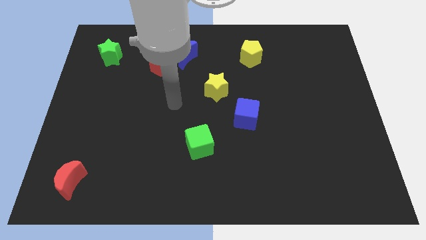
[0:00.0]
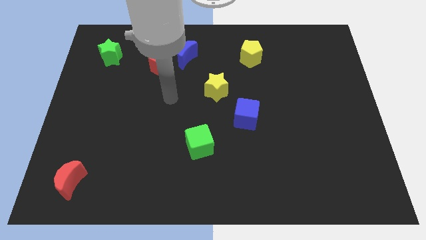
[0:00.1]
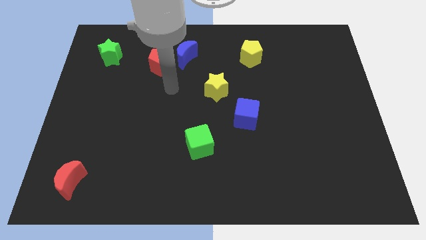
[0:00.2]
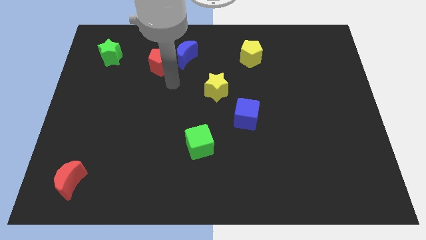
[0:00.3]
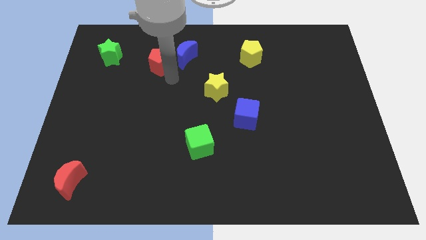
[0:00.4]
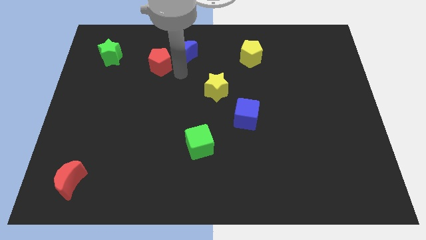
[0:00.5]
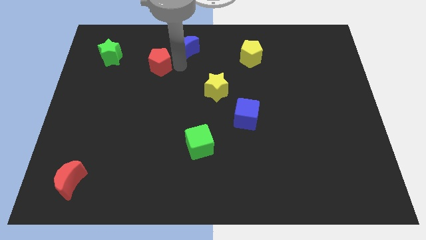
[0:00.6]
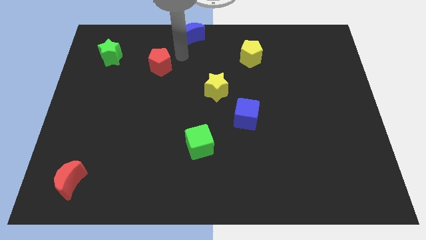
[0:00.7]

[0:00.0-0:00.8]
separate the red pentagon from the blue moon

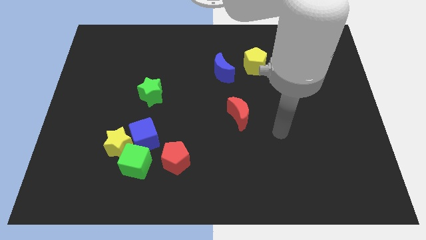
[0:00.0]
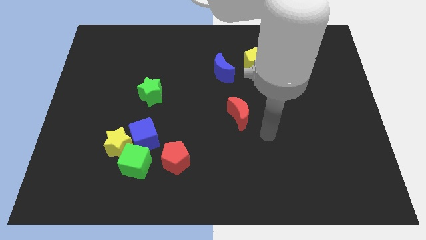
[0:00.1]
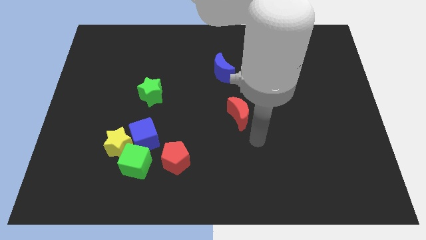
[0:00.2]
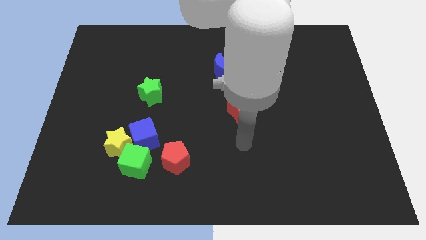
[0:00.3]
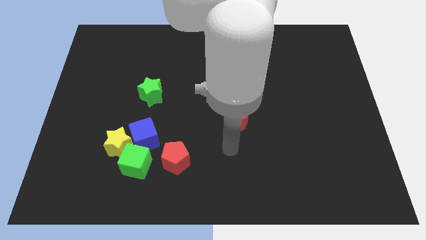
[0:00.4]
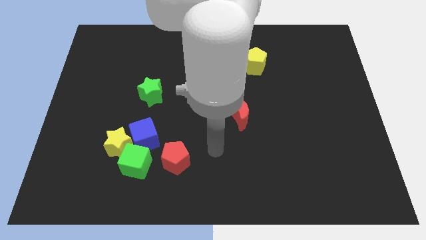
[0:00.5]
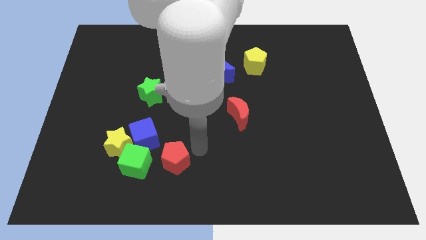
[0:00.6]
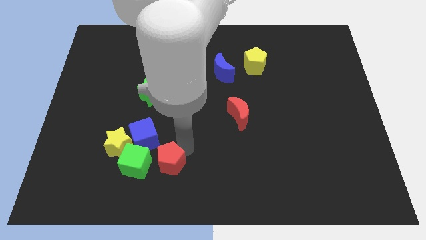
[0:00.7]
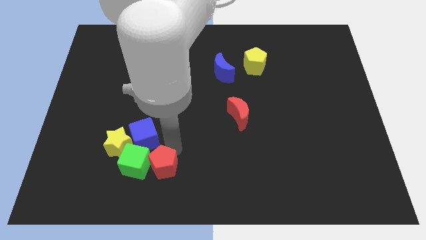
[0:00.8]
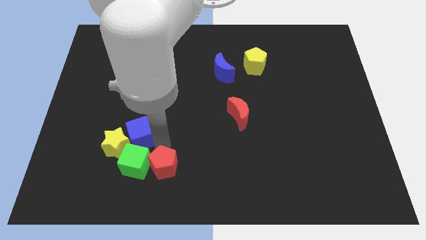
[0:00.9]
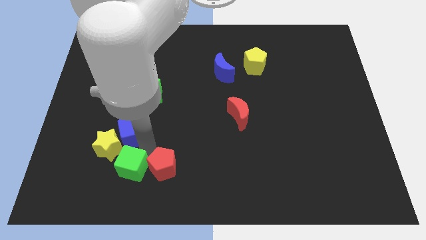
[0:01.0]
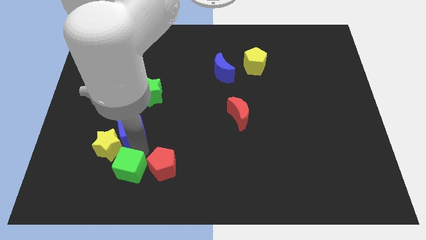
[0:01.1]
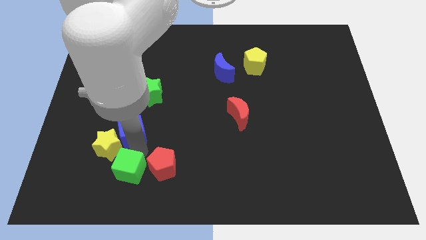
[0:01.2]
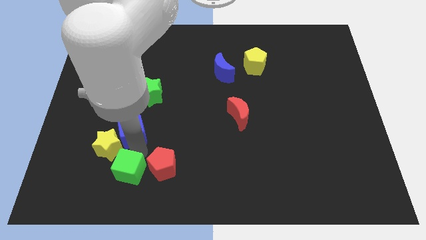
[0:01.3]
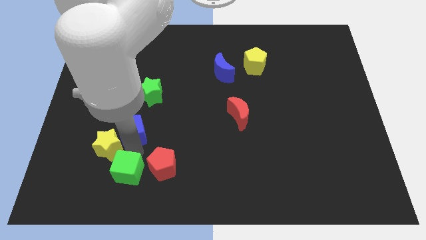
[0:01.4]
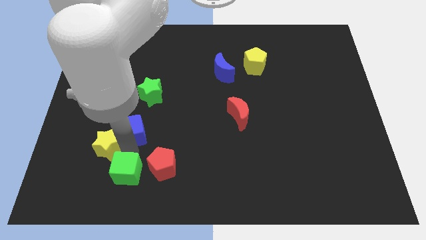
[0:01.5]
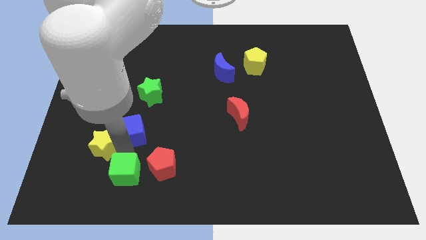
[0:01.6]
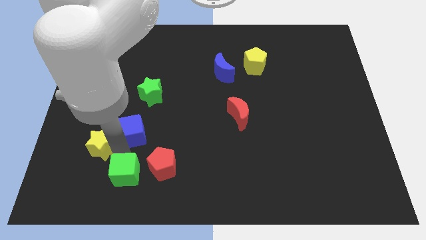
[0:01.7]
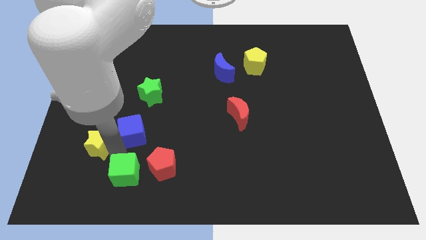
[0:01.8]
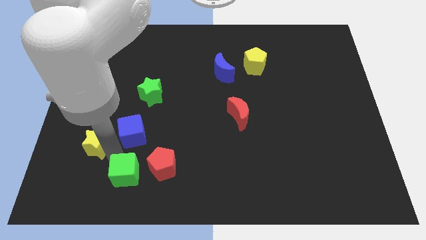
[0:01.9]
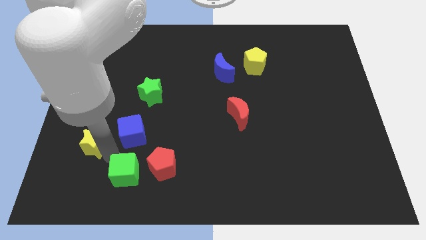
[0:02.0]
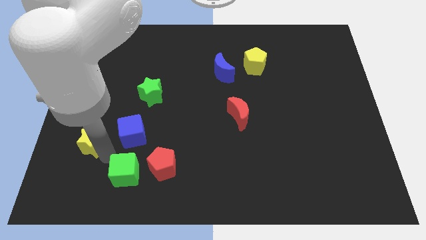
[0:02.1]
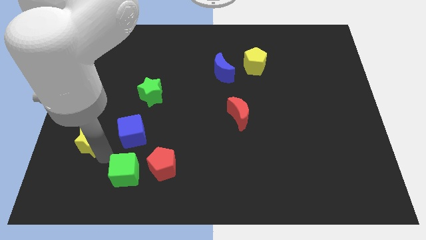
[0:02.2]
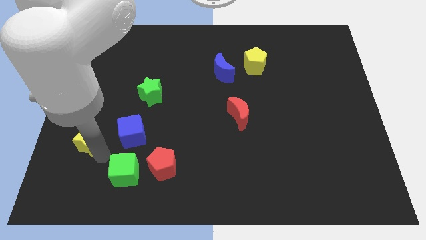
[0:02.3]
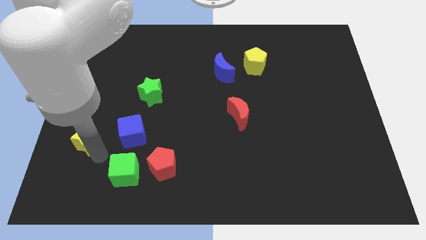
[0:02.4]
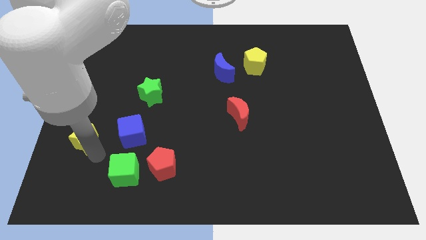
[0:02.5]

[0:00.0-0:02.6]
move the yellow star away from the blue cube and green cube

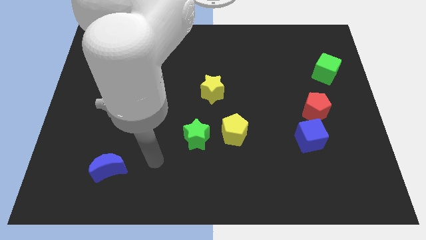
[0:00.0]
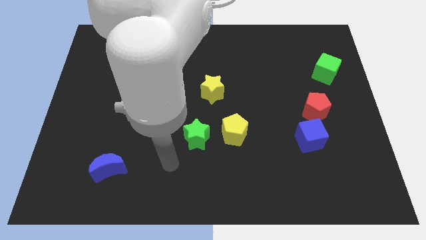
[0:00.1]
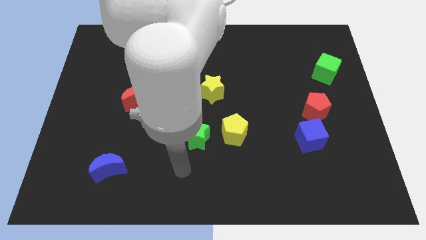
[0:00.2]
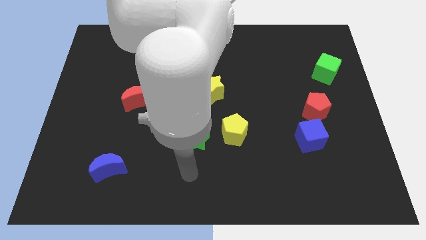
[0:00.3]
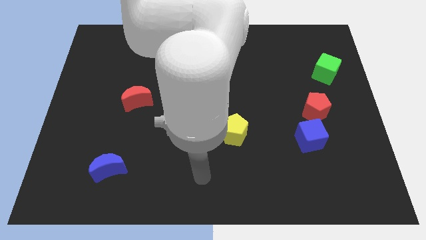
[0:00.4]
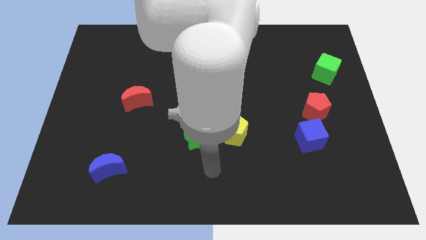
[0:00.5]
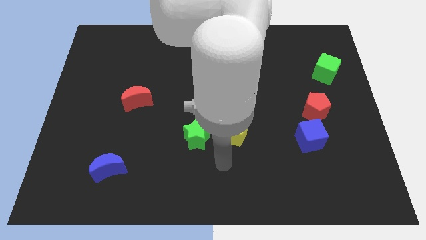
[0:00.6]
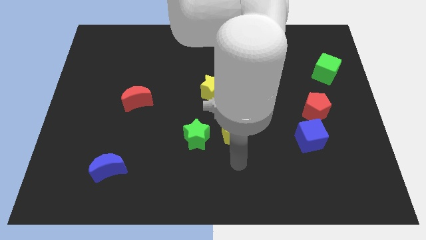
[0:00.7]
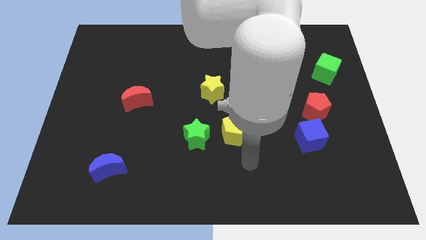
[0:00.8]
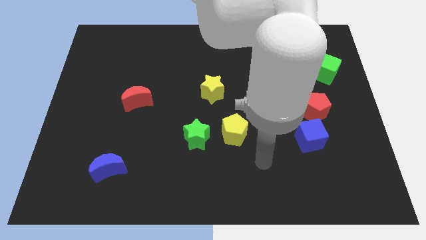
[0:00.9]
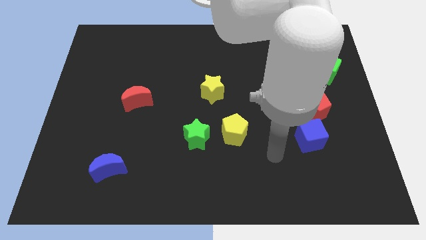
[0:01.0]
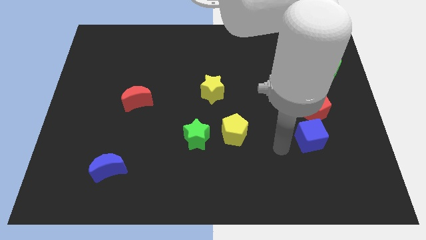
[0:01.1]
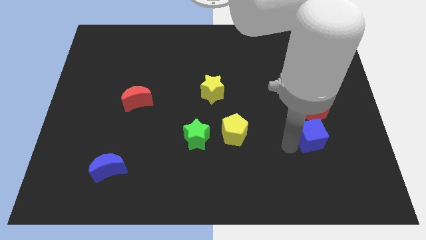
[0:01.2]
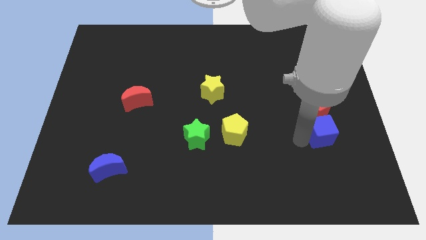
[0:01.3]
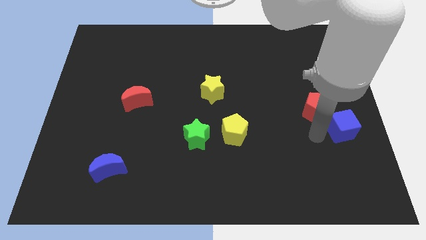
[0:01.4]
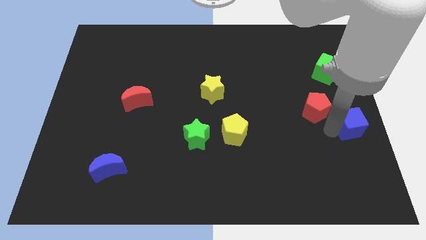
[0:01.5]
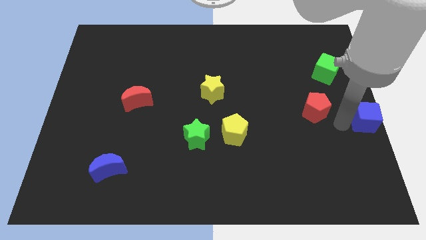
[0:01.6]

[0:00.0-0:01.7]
move the red pentagon away from the blue cube

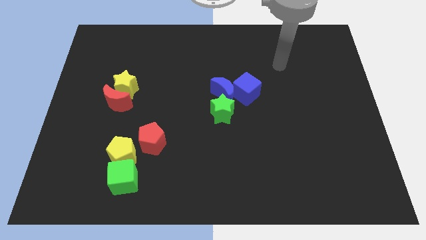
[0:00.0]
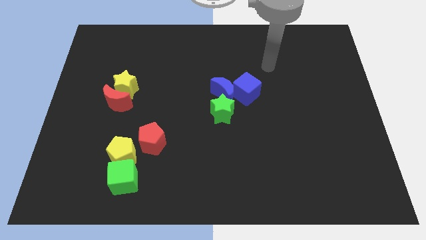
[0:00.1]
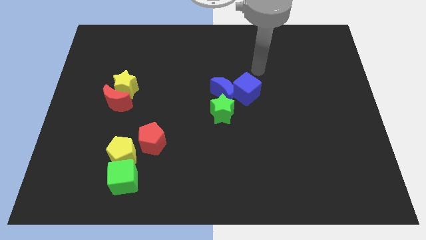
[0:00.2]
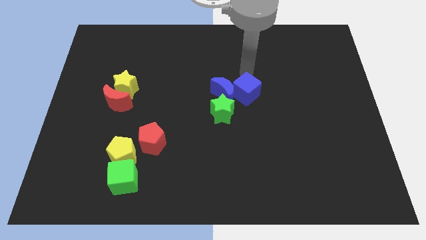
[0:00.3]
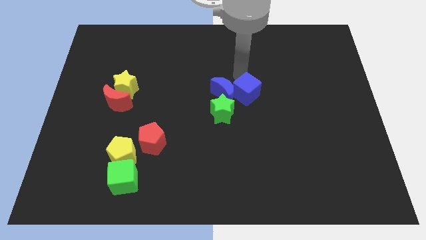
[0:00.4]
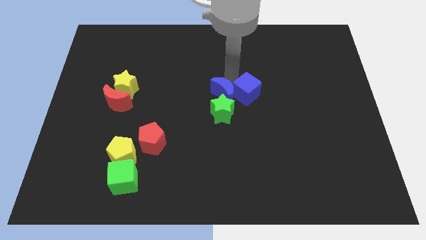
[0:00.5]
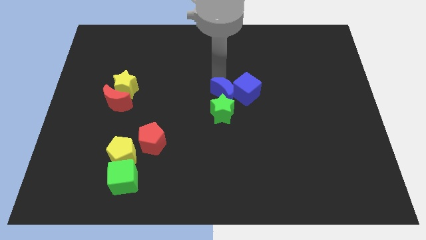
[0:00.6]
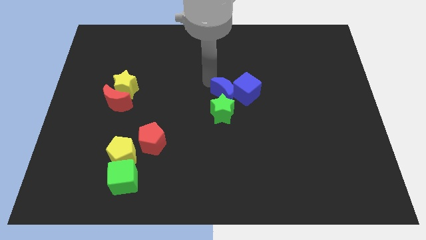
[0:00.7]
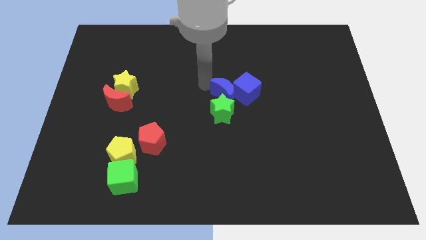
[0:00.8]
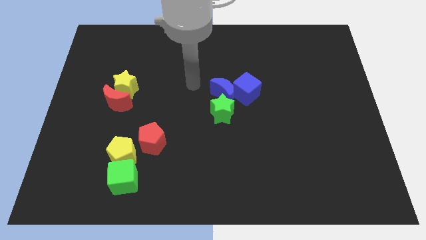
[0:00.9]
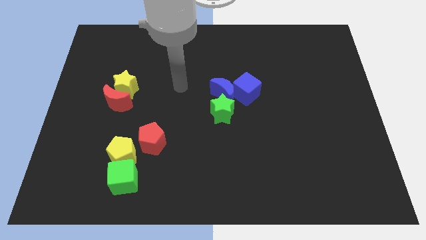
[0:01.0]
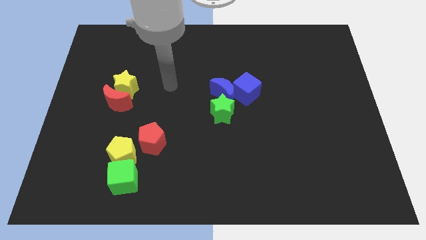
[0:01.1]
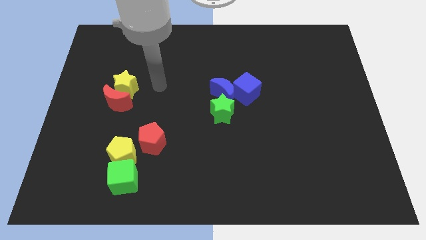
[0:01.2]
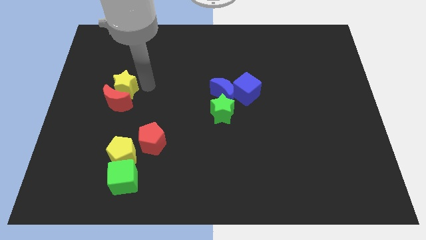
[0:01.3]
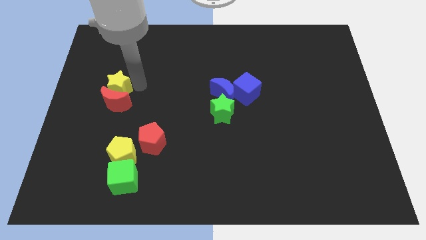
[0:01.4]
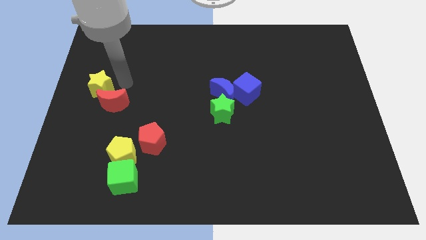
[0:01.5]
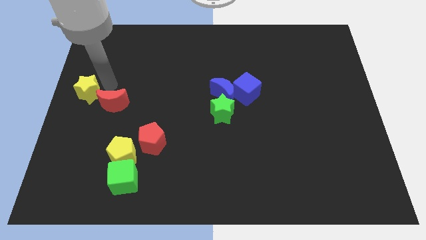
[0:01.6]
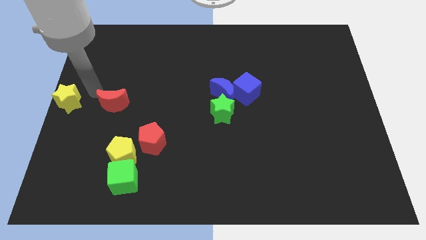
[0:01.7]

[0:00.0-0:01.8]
pull the red moon apart from the yellow star

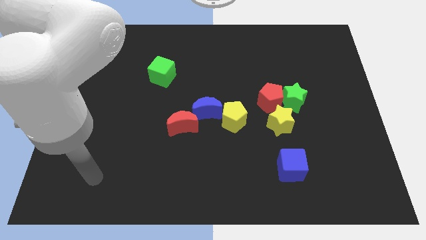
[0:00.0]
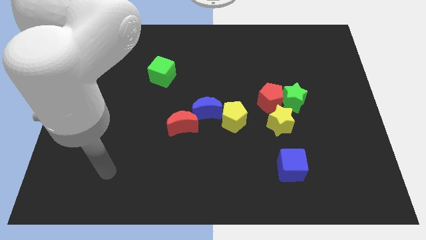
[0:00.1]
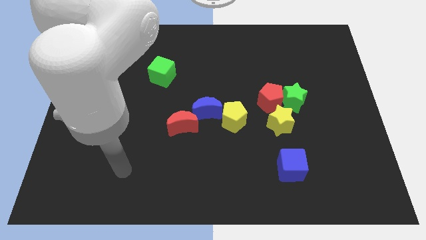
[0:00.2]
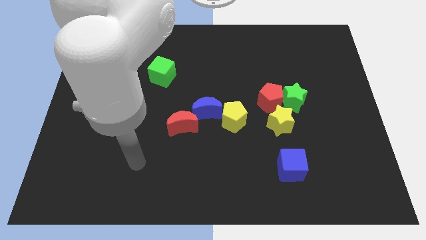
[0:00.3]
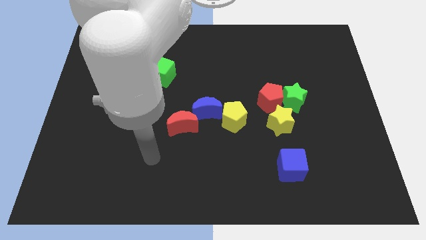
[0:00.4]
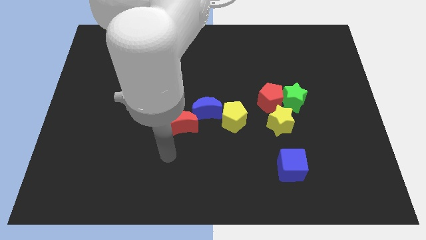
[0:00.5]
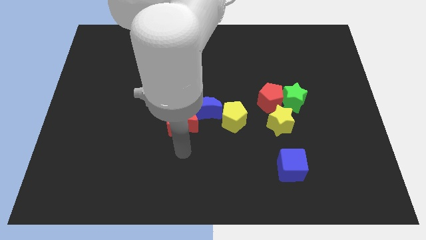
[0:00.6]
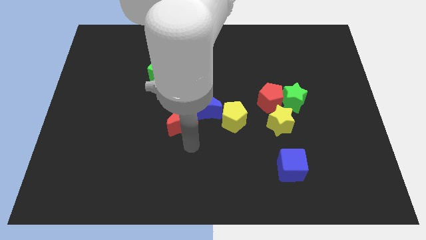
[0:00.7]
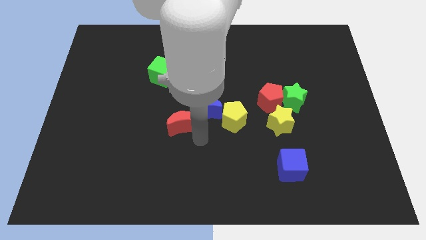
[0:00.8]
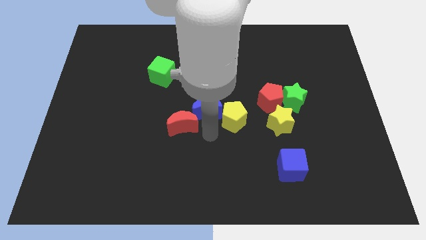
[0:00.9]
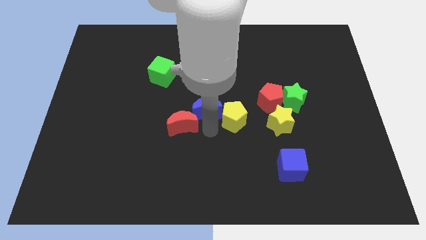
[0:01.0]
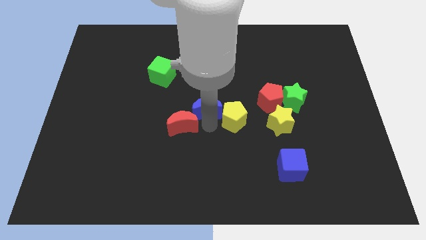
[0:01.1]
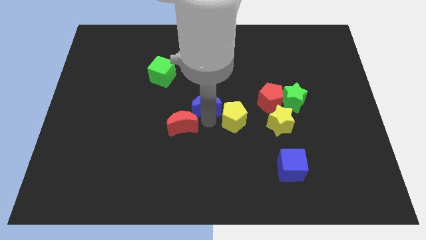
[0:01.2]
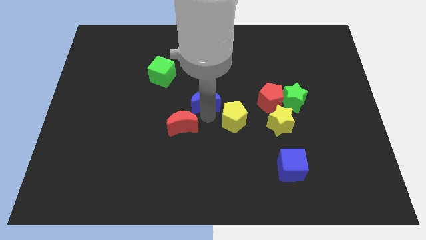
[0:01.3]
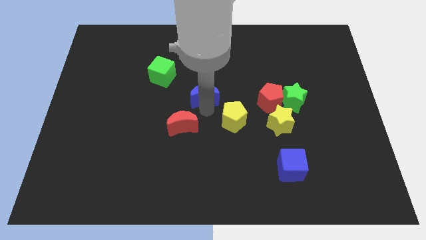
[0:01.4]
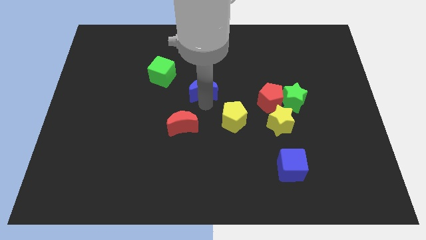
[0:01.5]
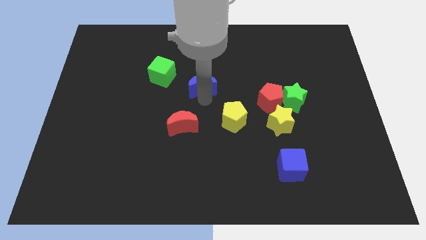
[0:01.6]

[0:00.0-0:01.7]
pull the blue moon apart from the yellow pentagon and red moon

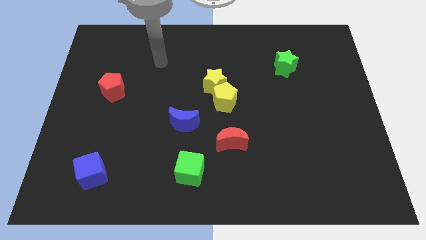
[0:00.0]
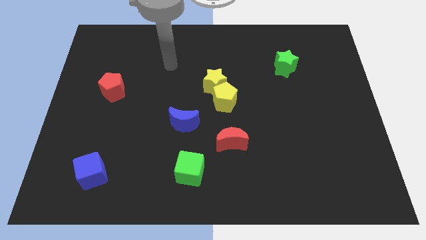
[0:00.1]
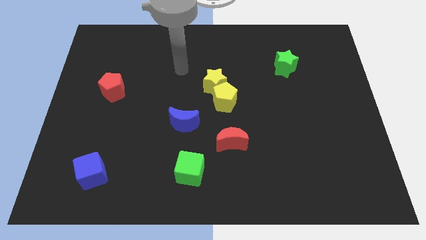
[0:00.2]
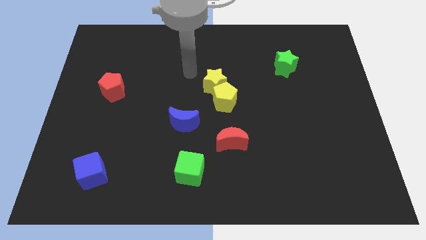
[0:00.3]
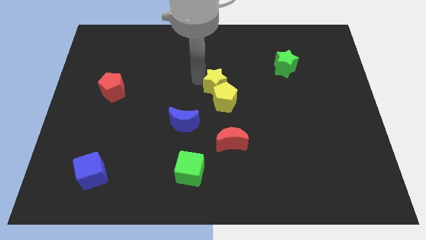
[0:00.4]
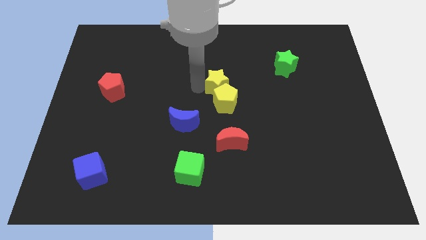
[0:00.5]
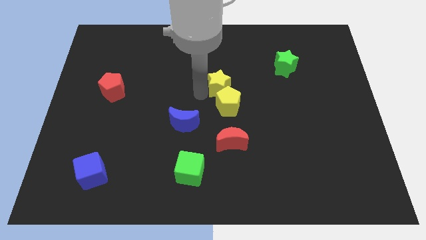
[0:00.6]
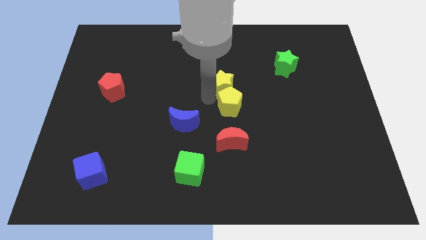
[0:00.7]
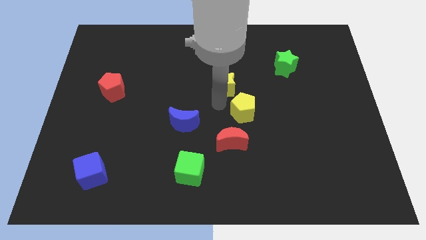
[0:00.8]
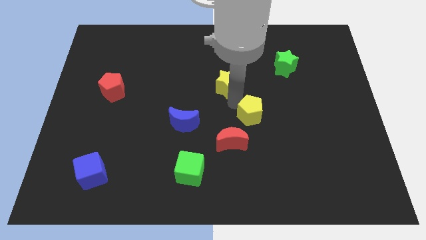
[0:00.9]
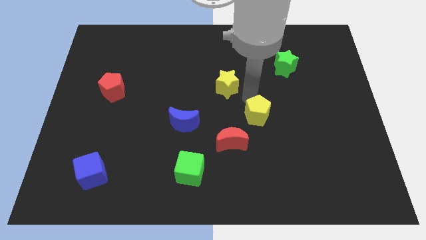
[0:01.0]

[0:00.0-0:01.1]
pull the yellow star apart from the yellow pentagon
